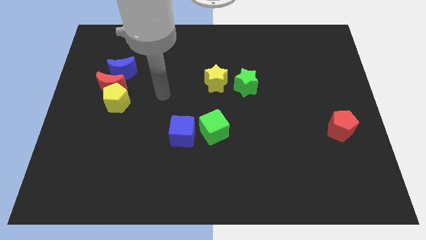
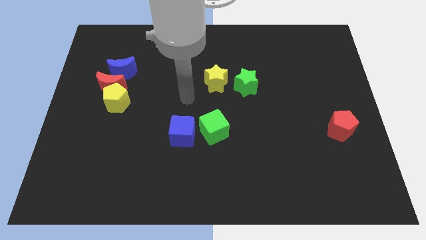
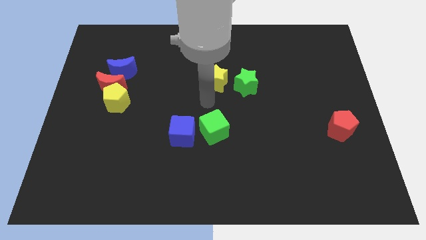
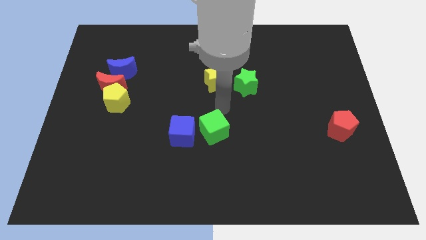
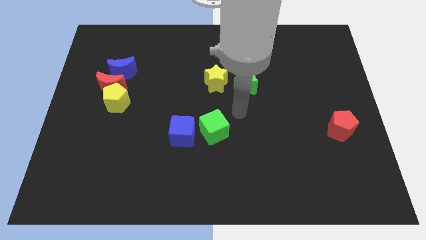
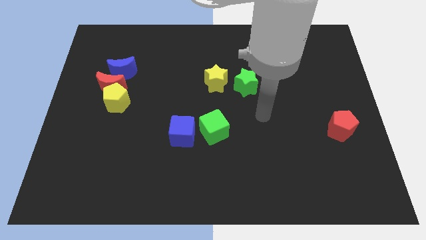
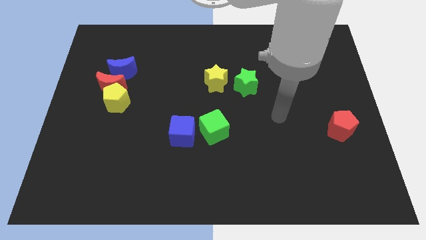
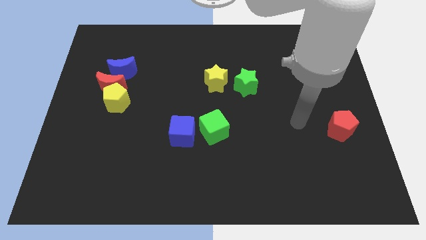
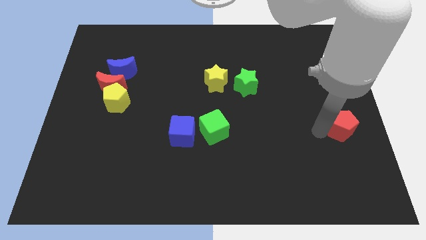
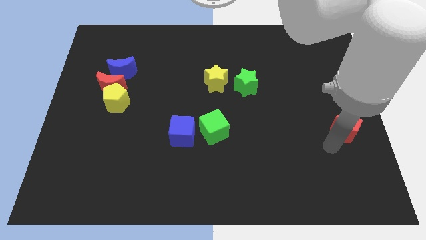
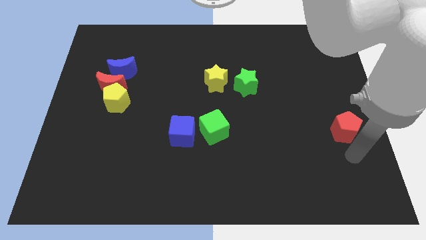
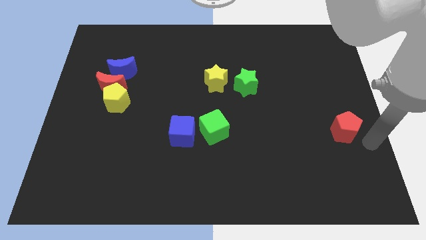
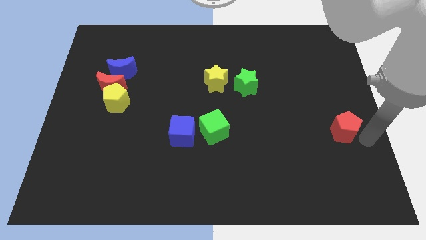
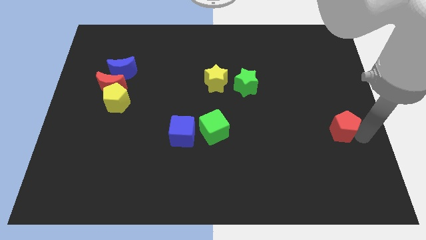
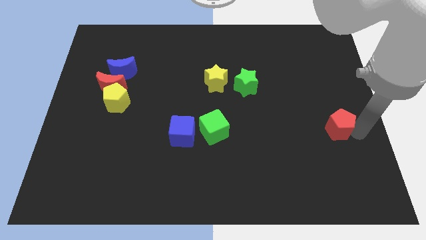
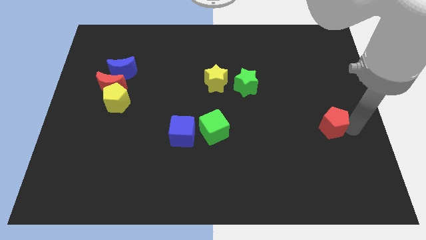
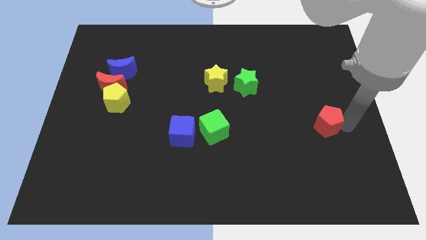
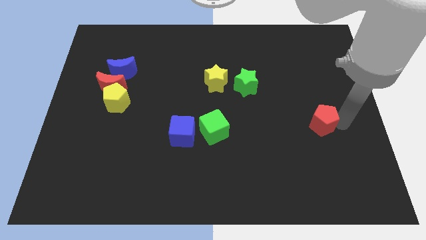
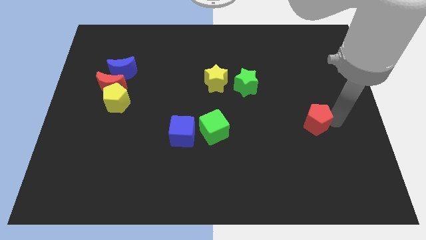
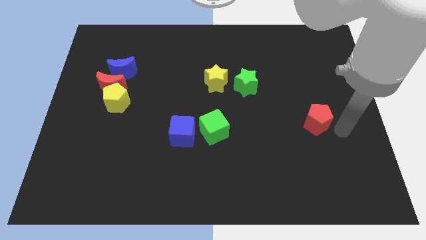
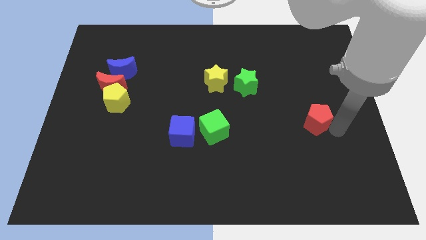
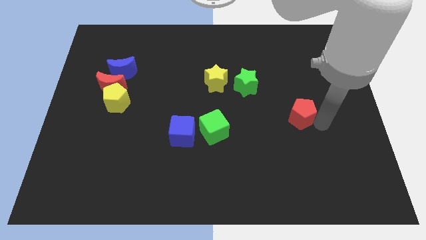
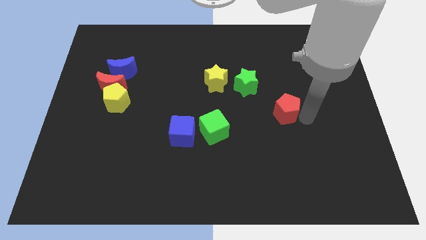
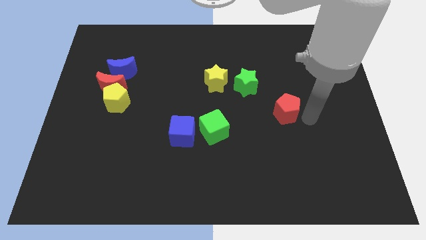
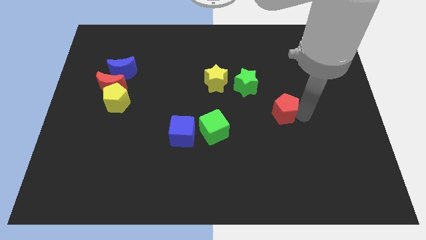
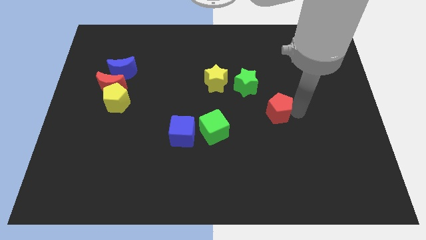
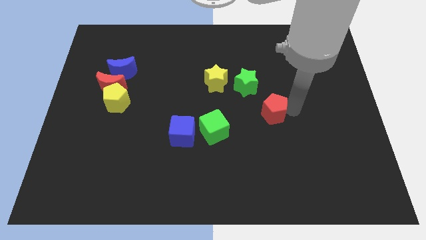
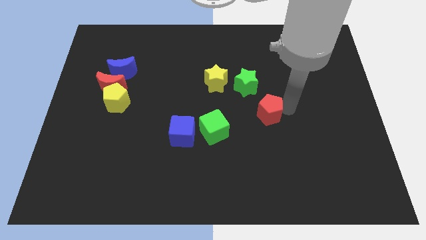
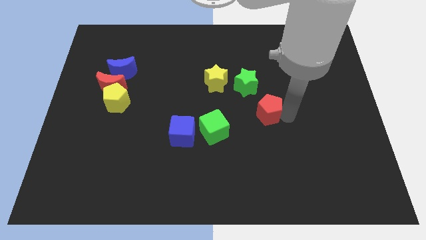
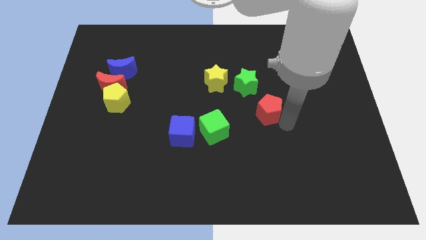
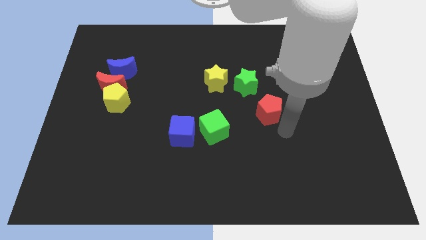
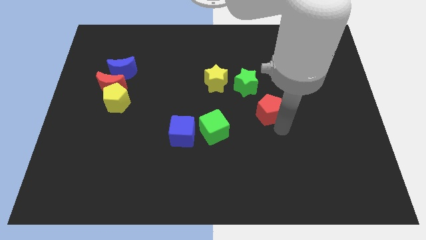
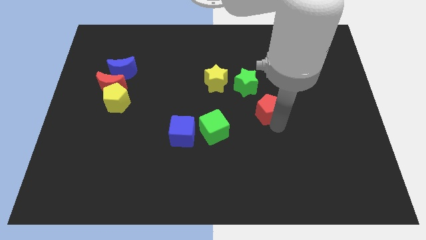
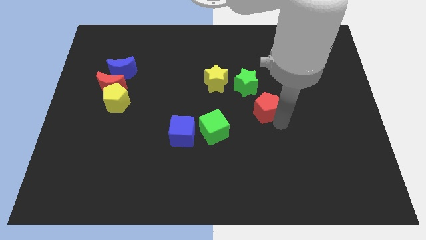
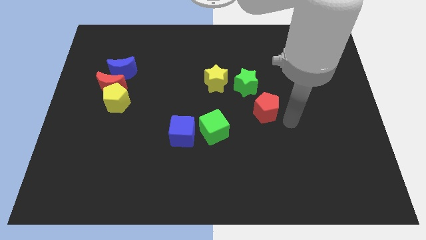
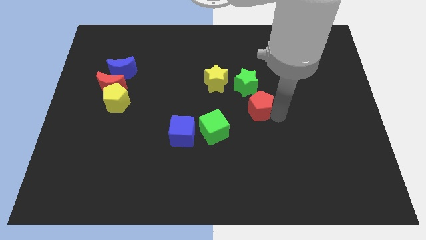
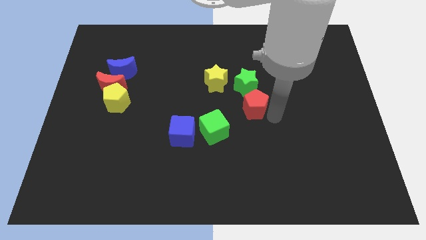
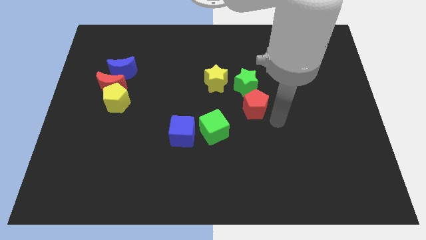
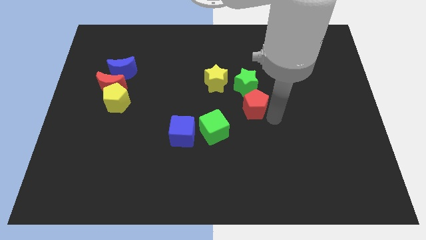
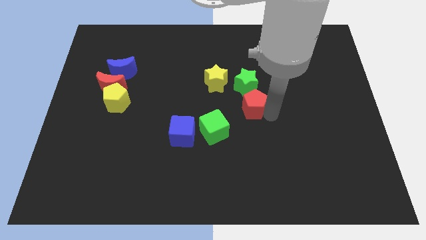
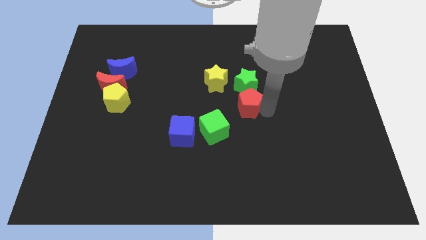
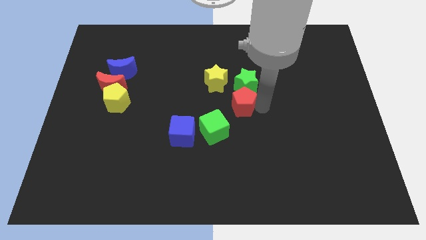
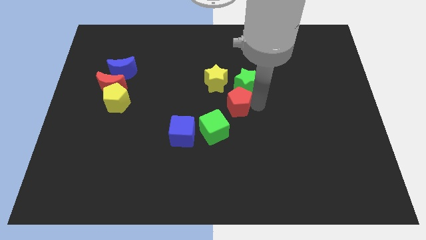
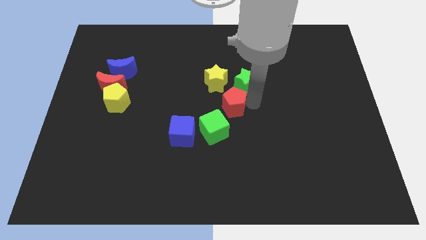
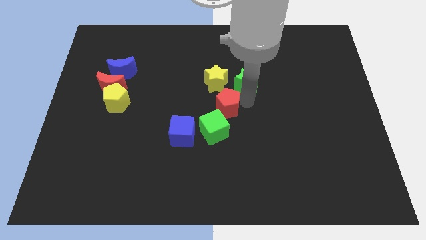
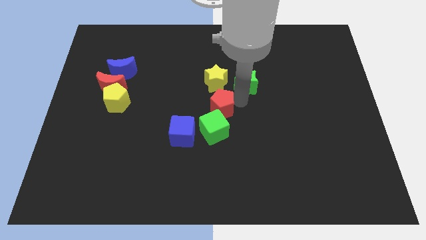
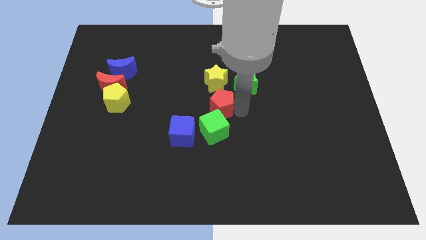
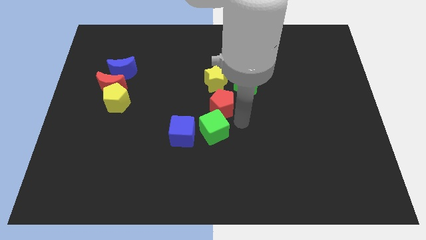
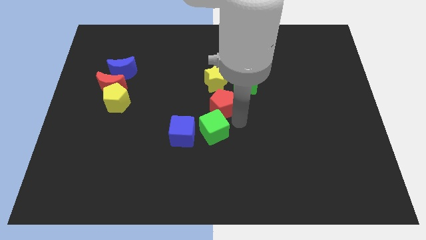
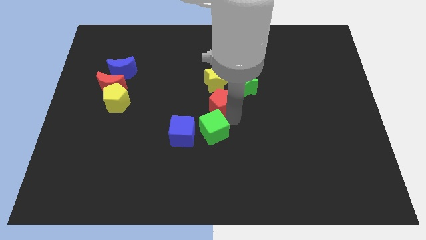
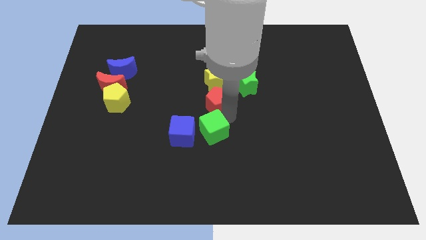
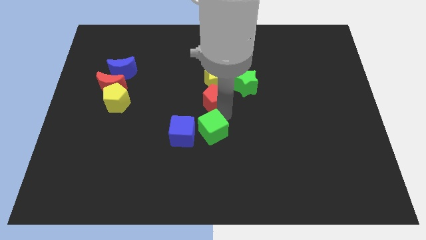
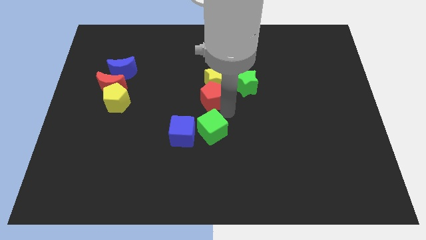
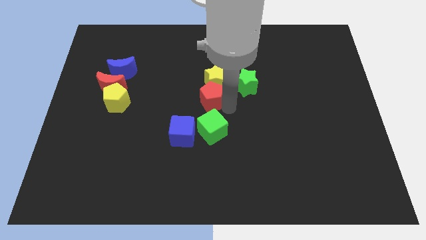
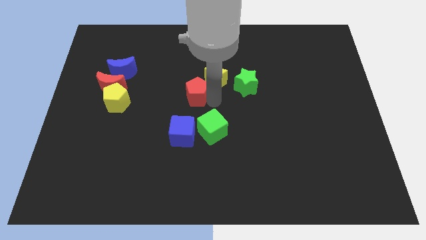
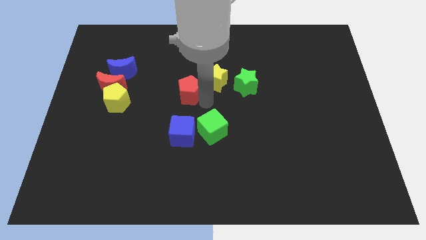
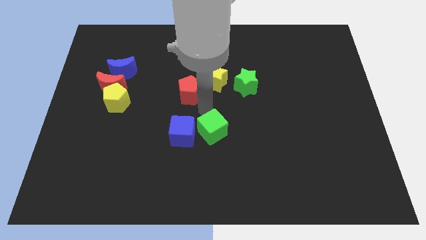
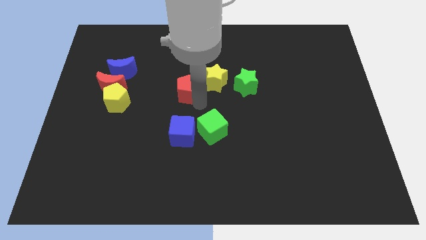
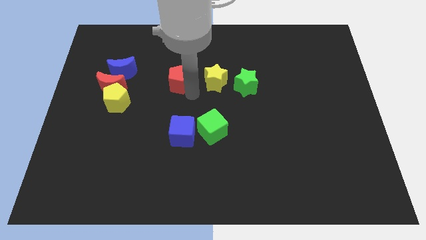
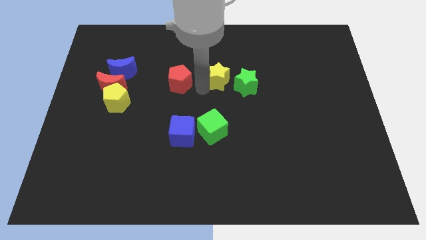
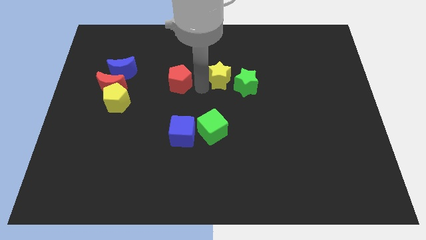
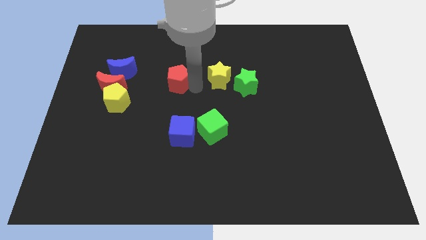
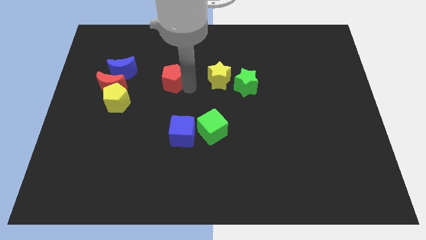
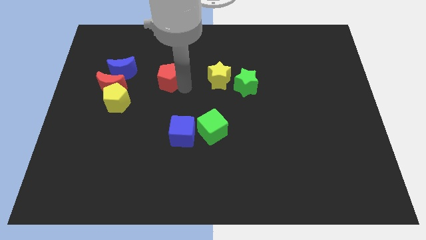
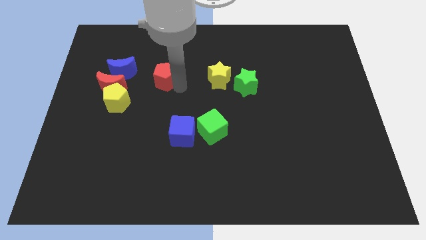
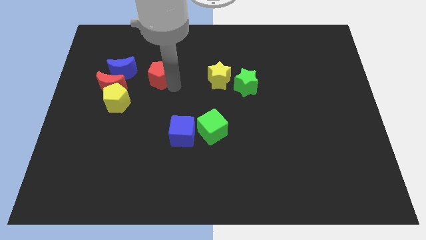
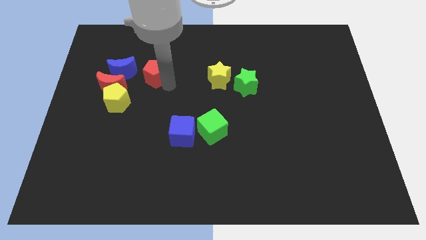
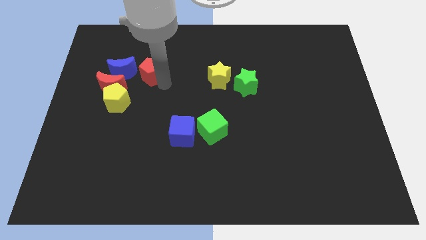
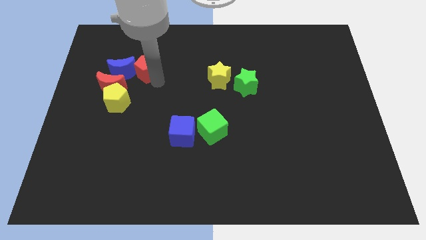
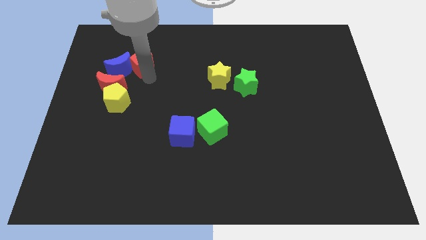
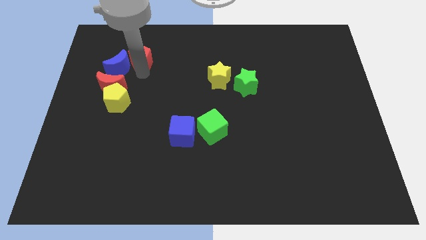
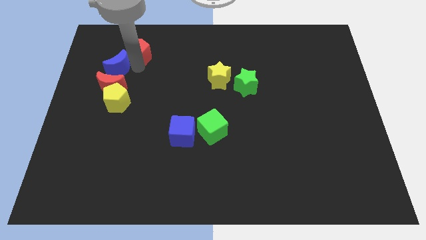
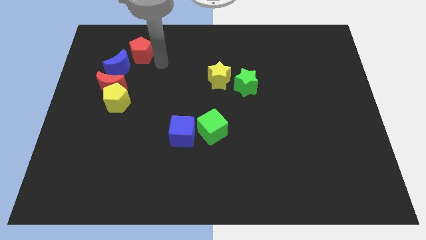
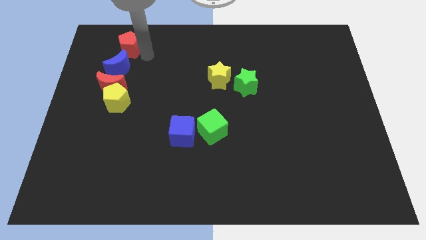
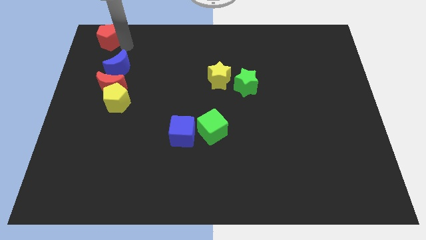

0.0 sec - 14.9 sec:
move the red pentagon to the top left corner
